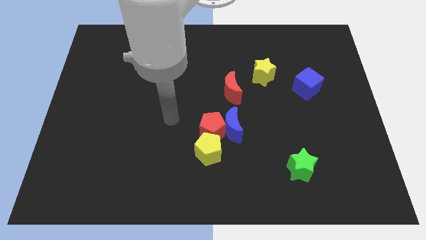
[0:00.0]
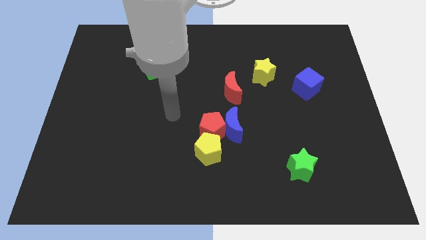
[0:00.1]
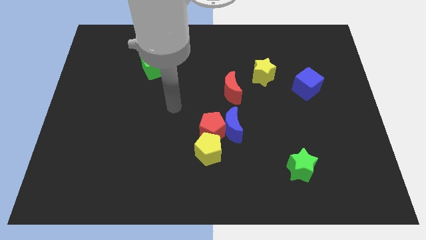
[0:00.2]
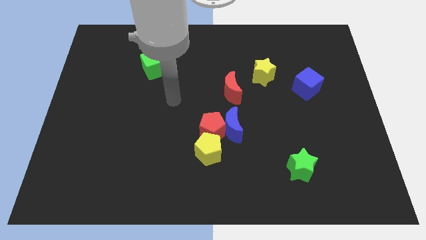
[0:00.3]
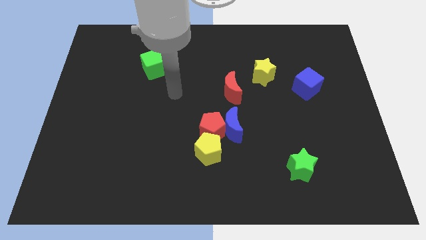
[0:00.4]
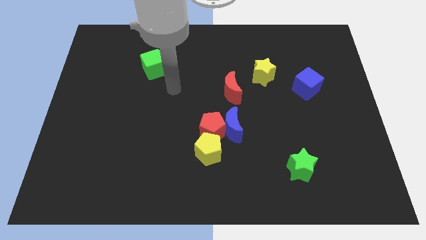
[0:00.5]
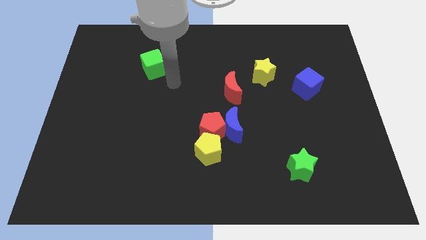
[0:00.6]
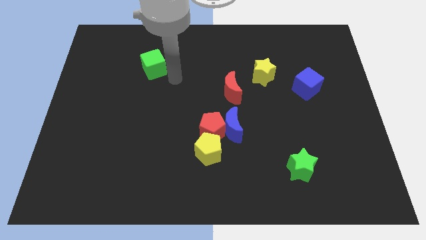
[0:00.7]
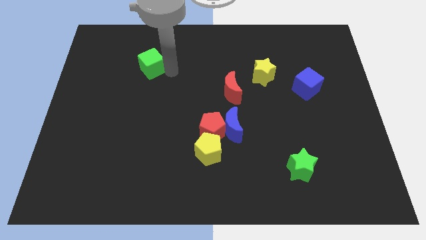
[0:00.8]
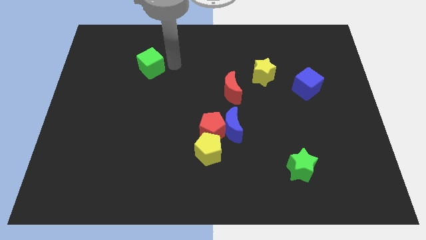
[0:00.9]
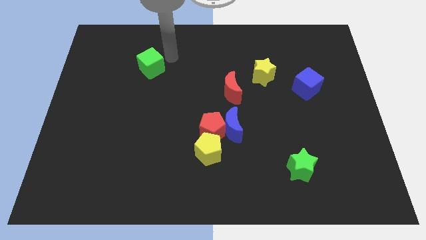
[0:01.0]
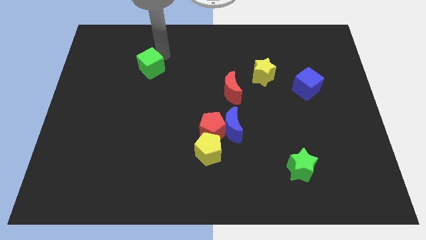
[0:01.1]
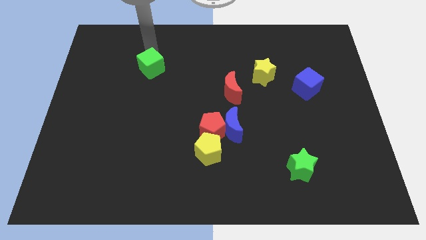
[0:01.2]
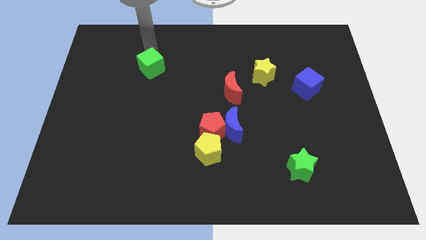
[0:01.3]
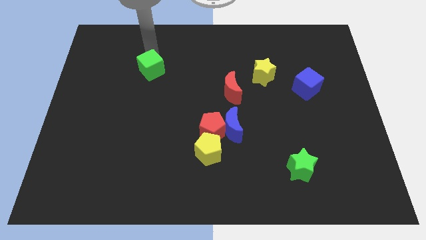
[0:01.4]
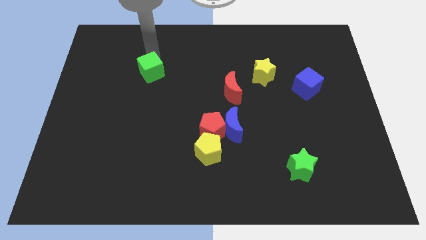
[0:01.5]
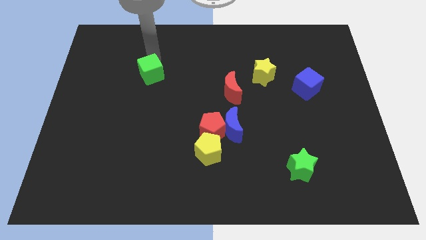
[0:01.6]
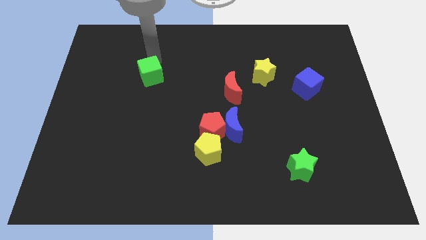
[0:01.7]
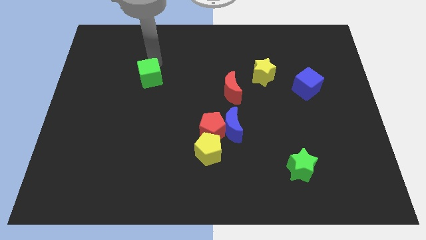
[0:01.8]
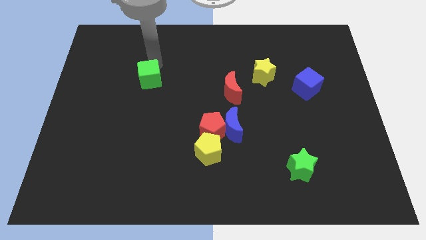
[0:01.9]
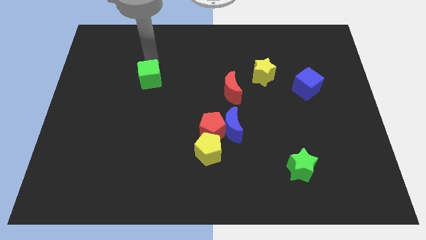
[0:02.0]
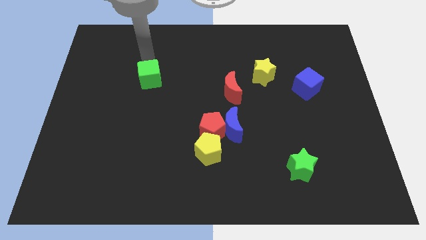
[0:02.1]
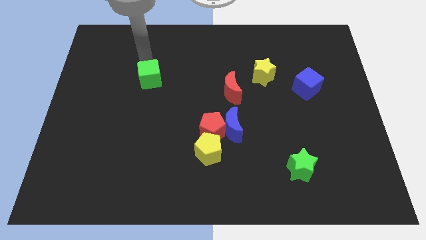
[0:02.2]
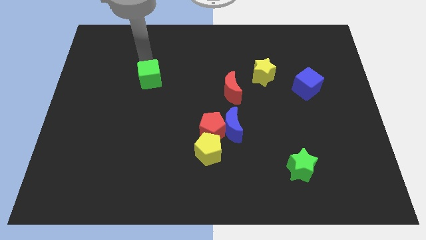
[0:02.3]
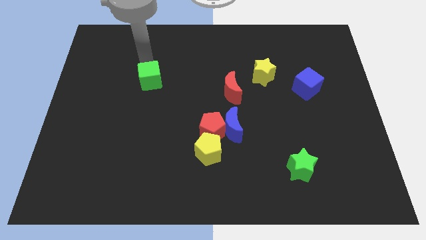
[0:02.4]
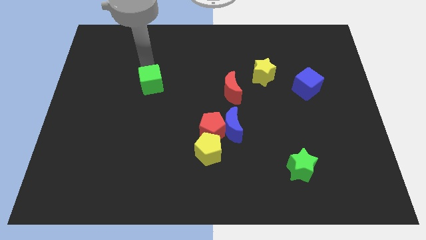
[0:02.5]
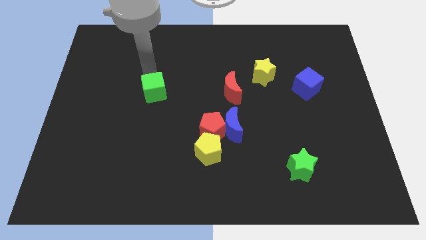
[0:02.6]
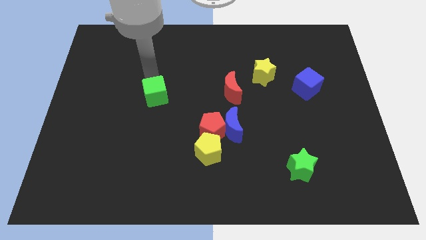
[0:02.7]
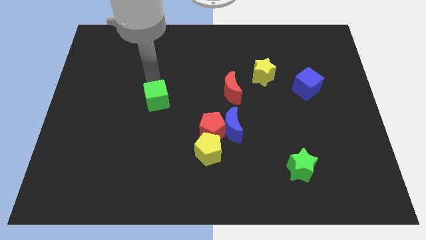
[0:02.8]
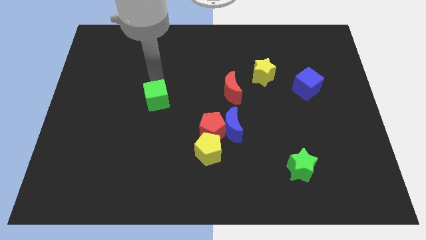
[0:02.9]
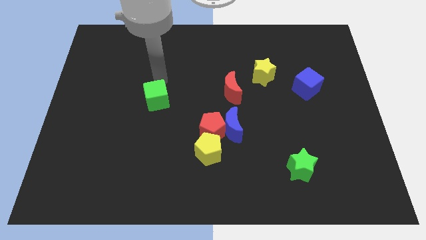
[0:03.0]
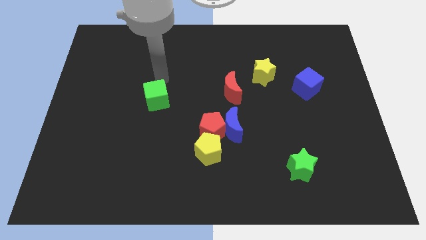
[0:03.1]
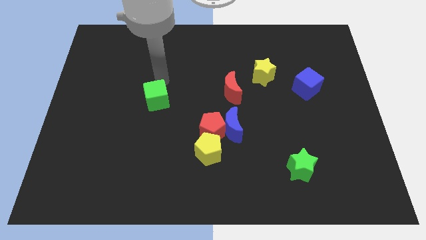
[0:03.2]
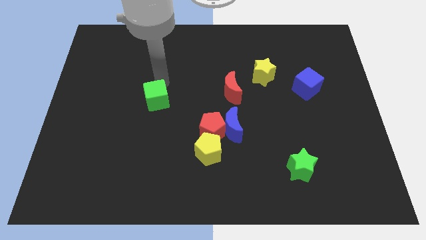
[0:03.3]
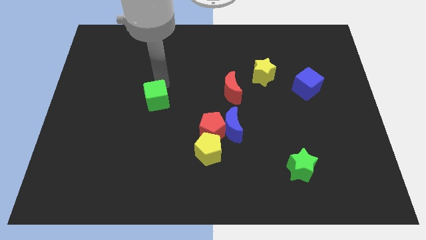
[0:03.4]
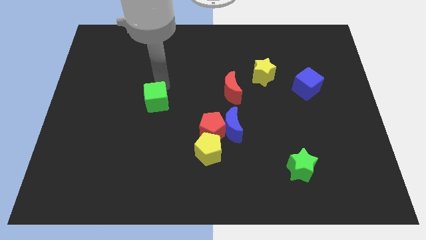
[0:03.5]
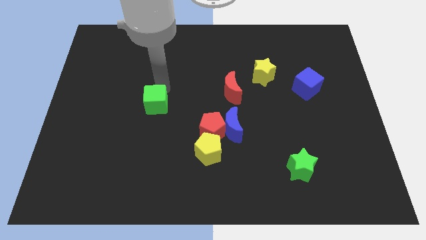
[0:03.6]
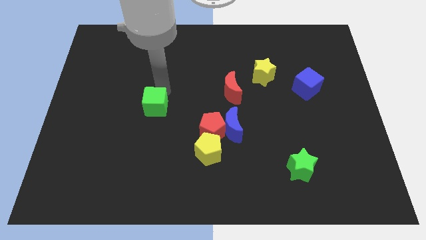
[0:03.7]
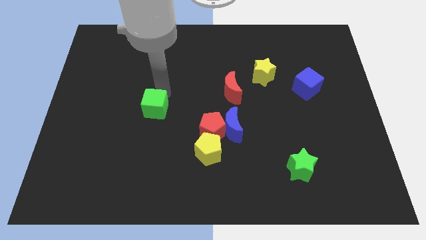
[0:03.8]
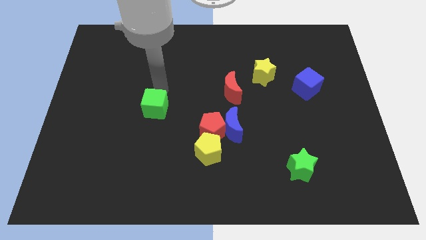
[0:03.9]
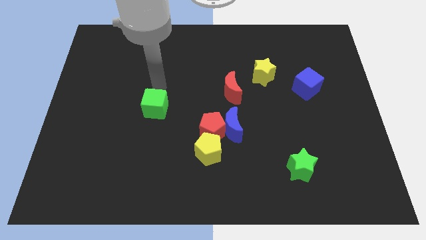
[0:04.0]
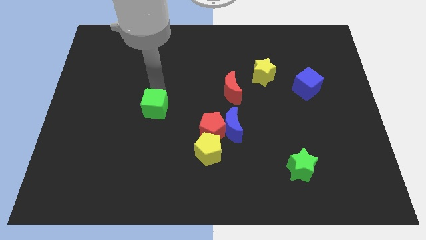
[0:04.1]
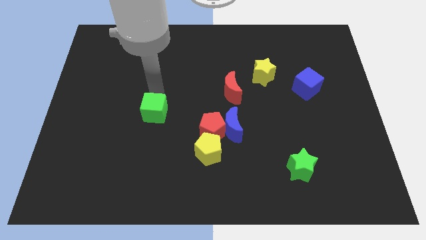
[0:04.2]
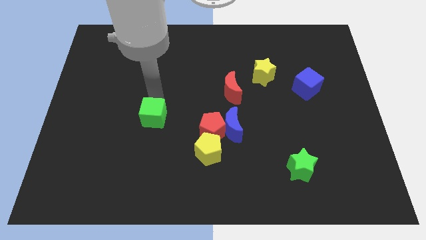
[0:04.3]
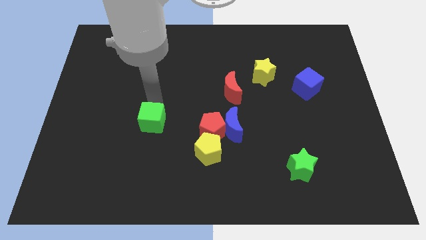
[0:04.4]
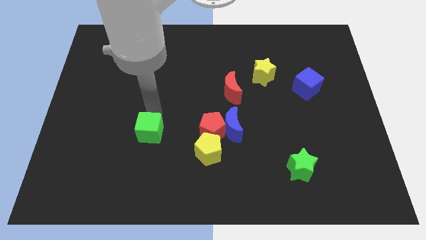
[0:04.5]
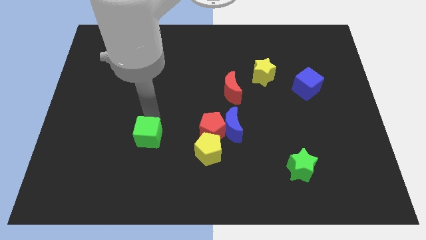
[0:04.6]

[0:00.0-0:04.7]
slide the green cube down

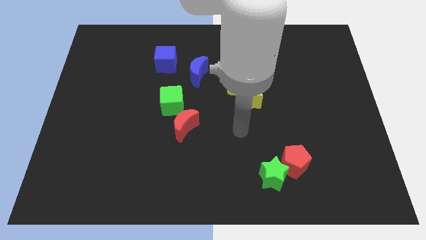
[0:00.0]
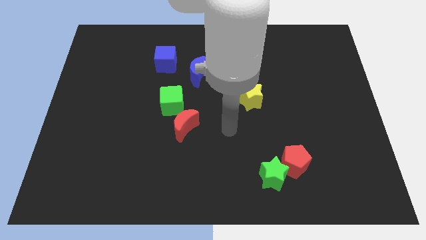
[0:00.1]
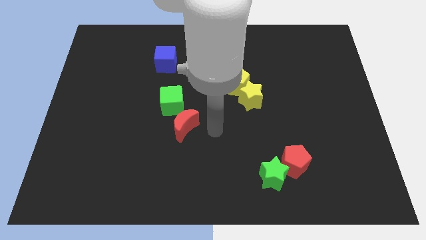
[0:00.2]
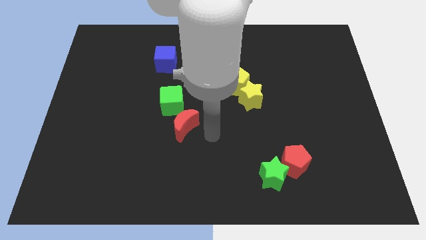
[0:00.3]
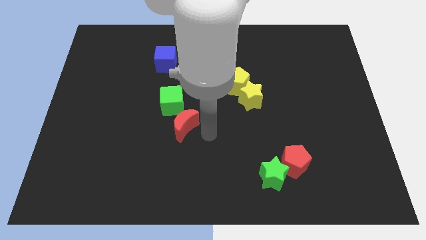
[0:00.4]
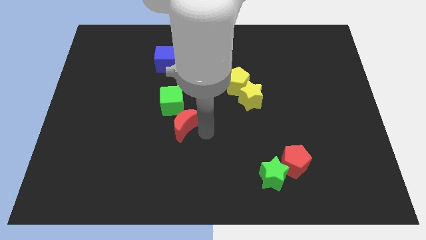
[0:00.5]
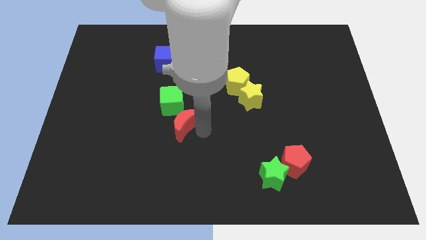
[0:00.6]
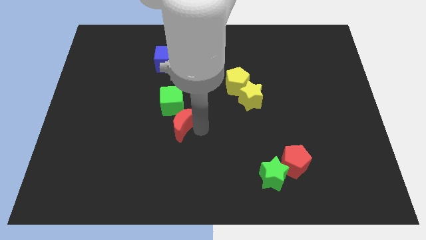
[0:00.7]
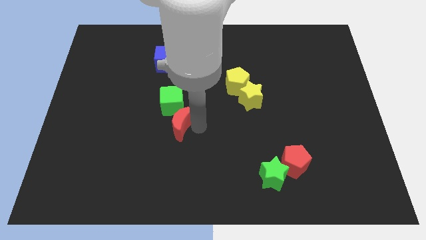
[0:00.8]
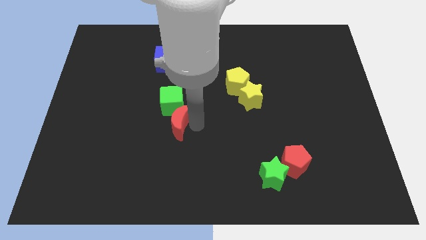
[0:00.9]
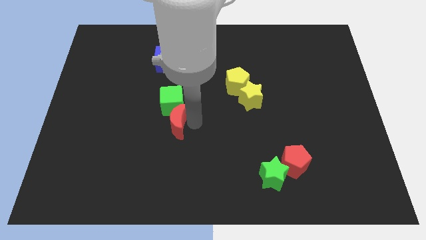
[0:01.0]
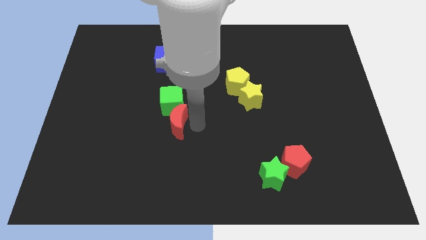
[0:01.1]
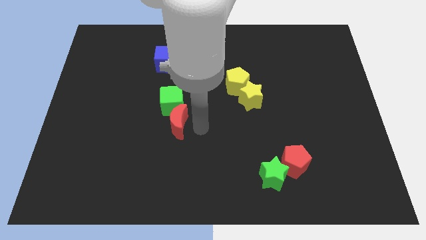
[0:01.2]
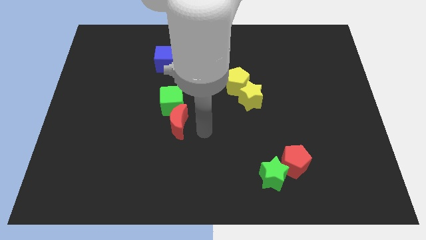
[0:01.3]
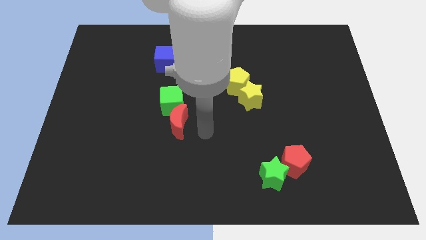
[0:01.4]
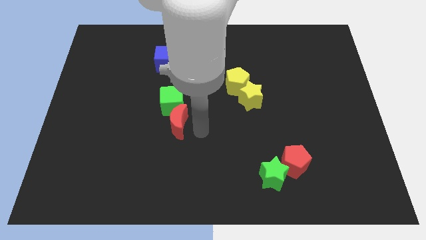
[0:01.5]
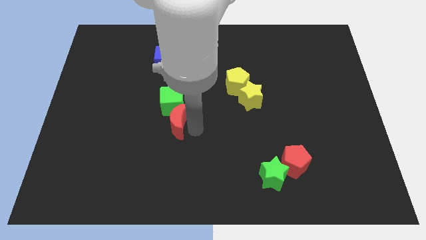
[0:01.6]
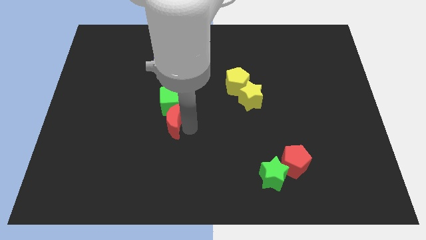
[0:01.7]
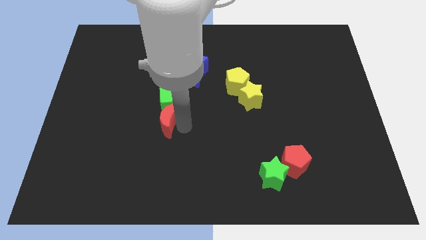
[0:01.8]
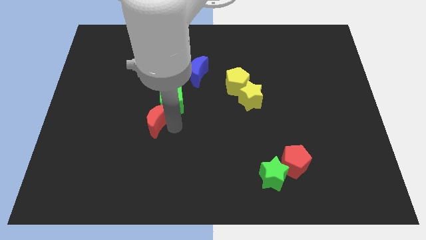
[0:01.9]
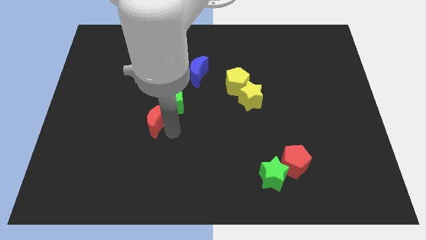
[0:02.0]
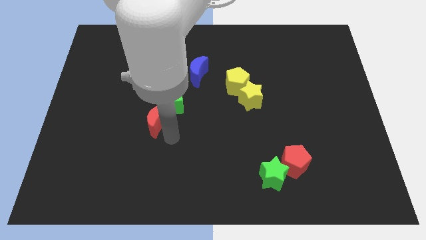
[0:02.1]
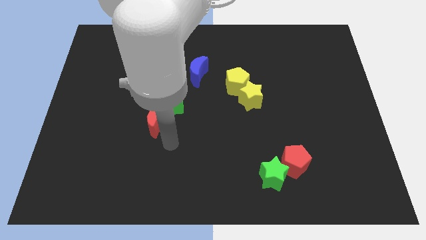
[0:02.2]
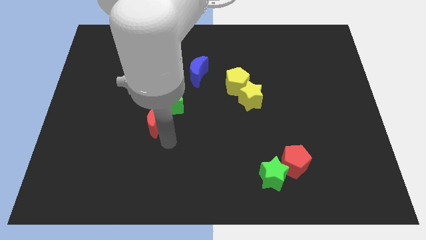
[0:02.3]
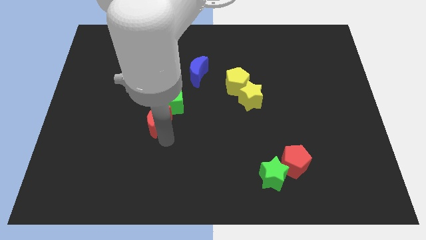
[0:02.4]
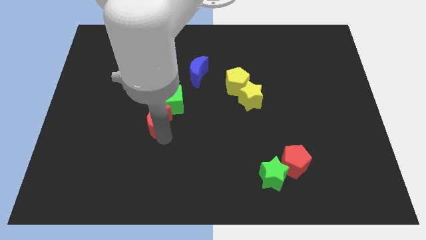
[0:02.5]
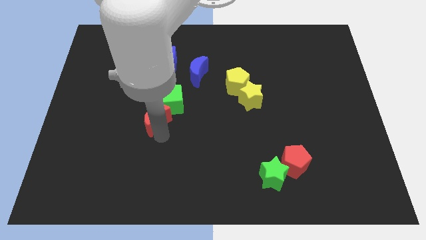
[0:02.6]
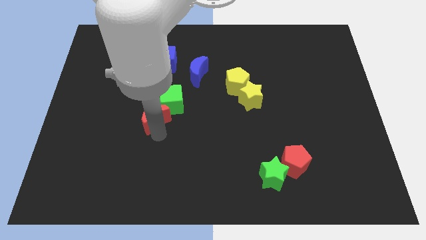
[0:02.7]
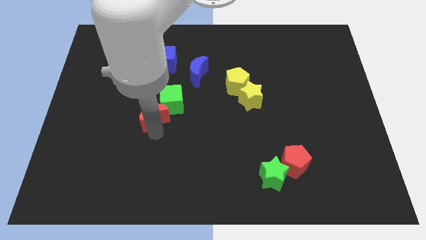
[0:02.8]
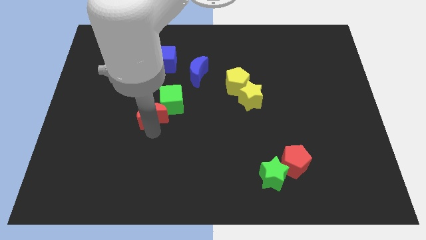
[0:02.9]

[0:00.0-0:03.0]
move the red moon slightly upwards and then left
